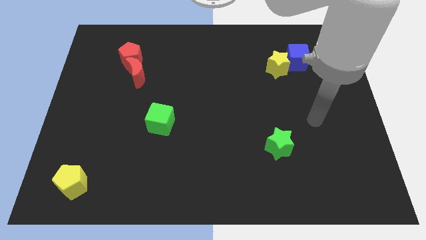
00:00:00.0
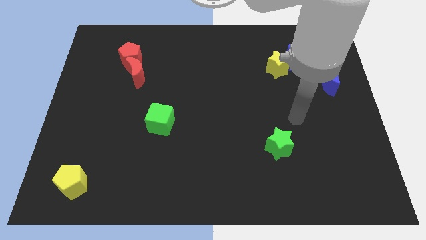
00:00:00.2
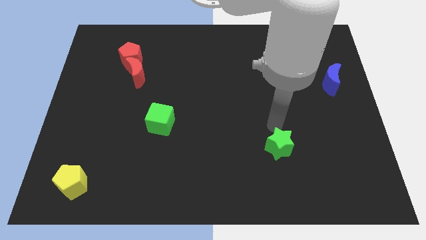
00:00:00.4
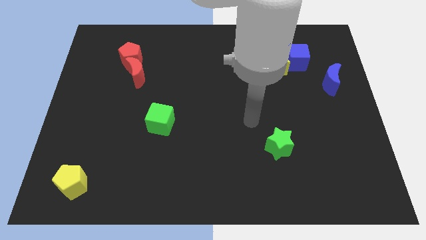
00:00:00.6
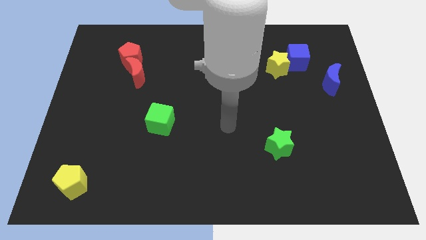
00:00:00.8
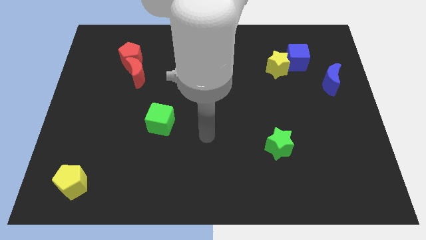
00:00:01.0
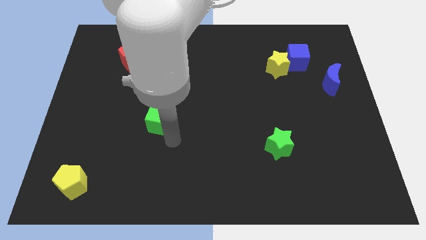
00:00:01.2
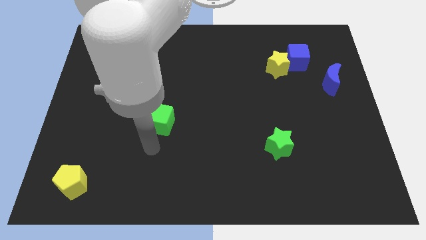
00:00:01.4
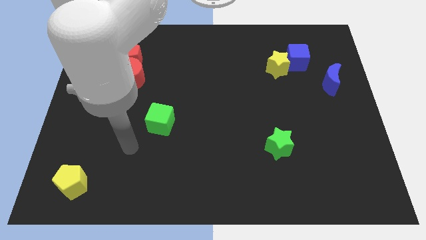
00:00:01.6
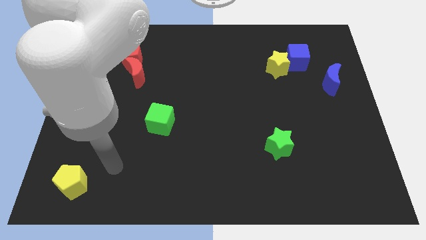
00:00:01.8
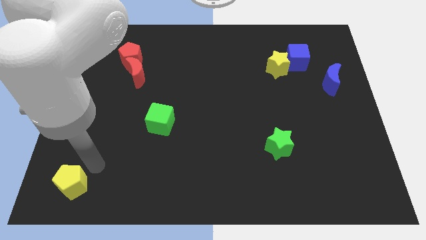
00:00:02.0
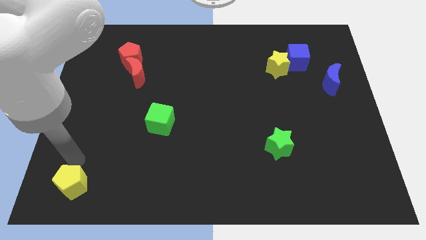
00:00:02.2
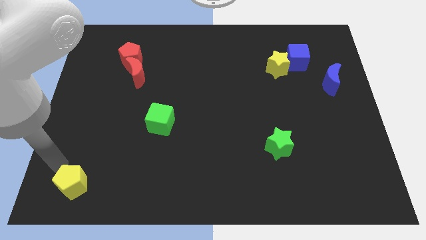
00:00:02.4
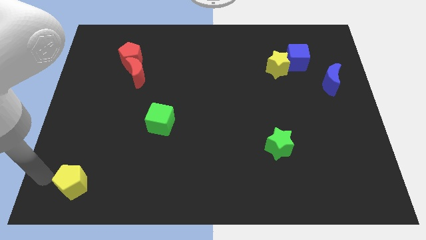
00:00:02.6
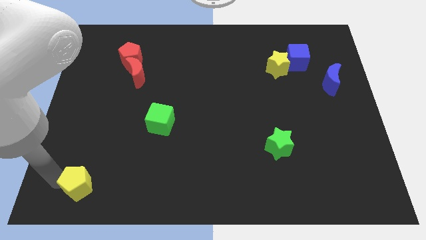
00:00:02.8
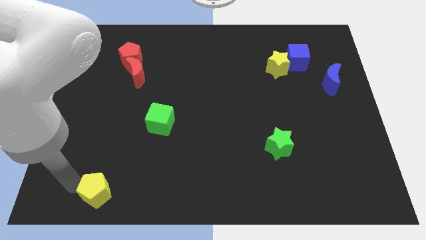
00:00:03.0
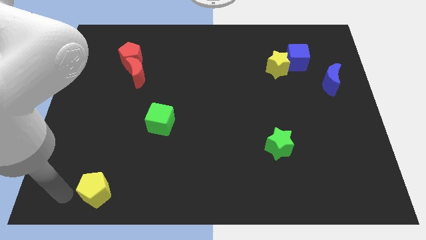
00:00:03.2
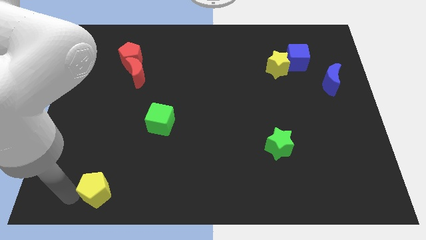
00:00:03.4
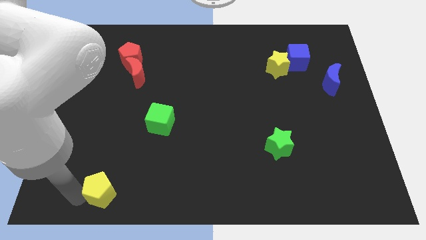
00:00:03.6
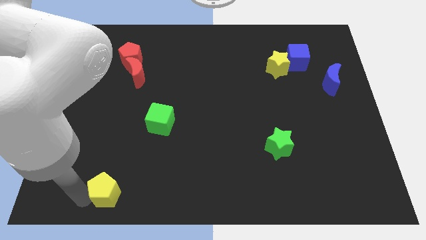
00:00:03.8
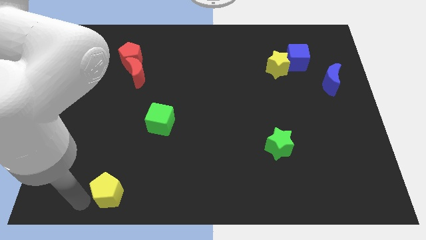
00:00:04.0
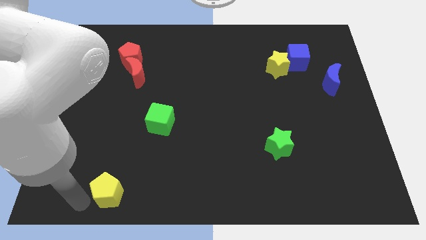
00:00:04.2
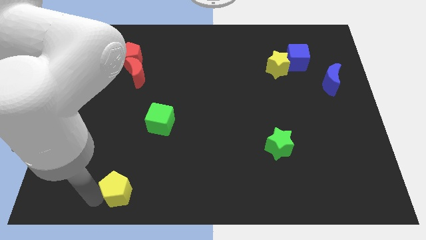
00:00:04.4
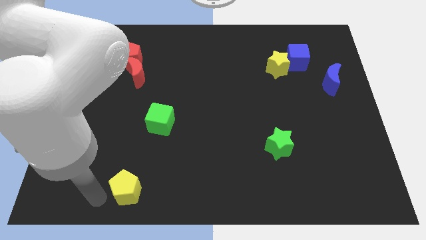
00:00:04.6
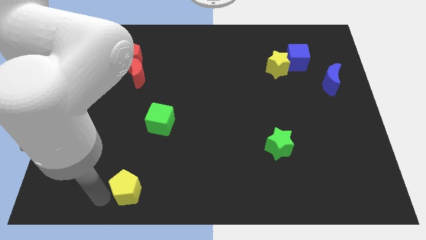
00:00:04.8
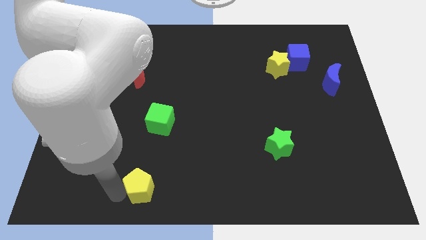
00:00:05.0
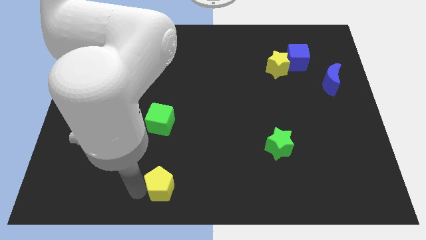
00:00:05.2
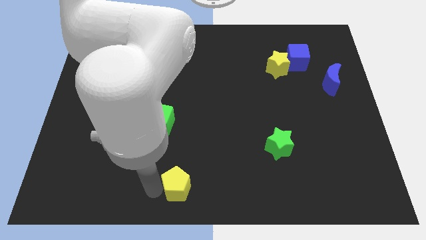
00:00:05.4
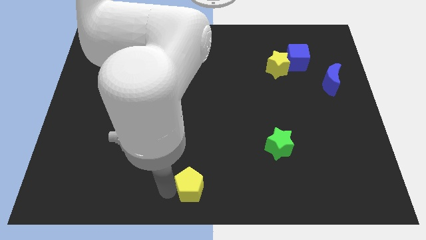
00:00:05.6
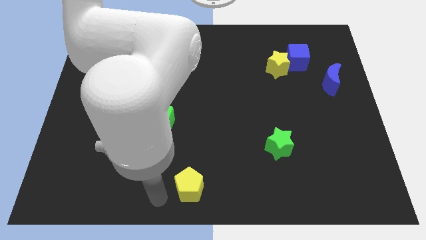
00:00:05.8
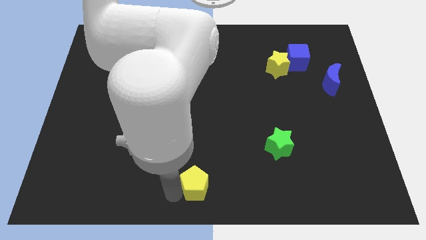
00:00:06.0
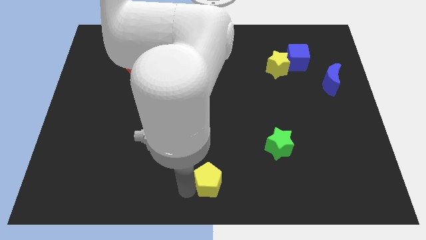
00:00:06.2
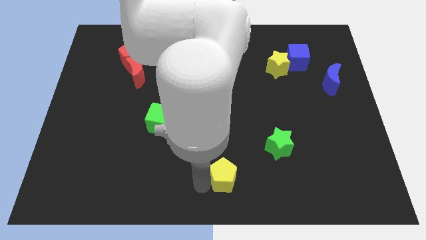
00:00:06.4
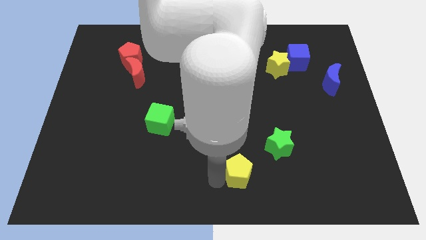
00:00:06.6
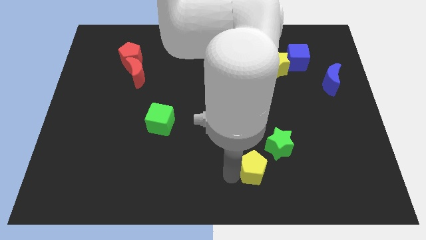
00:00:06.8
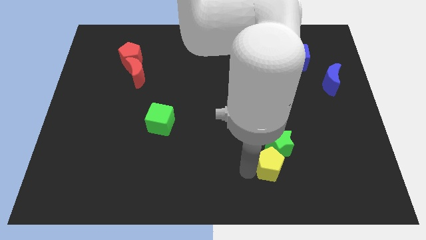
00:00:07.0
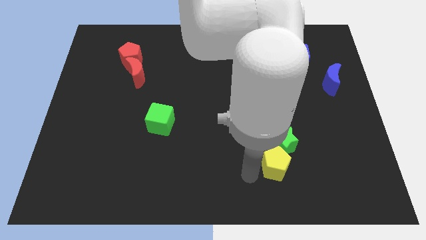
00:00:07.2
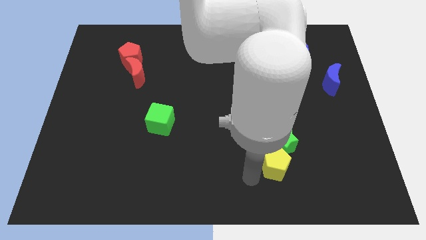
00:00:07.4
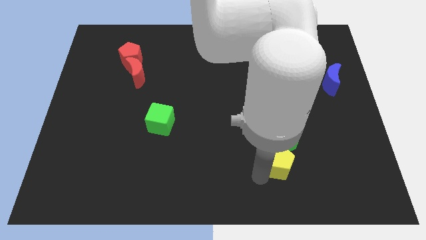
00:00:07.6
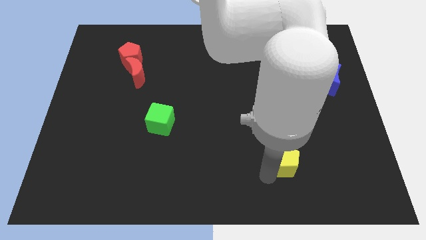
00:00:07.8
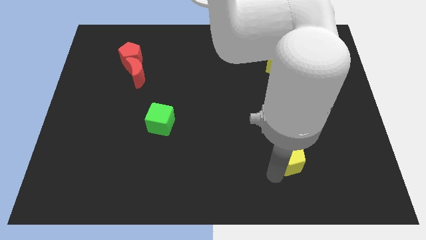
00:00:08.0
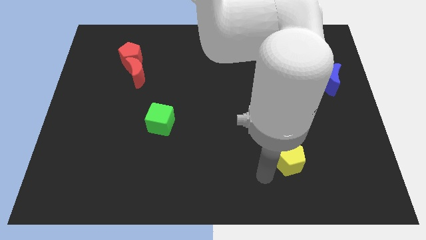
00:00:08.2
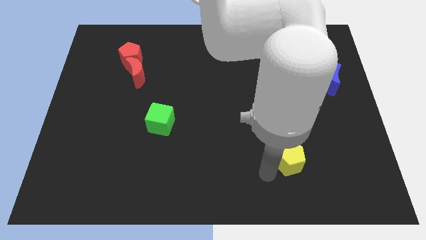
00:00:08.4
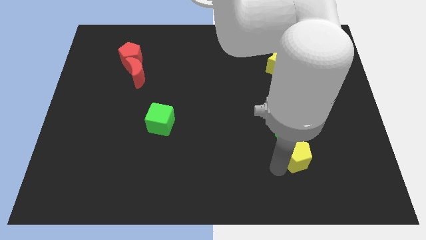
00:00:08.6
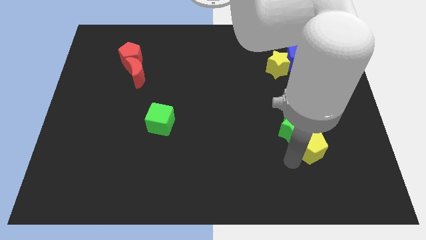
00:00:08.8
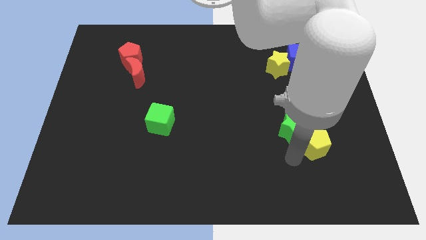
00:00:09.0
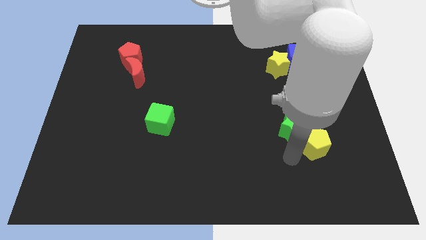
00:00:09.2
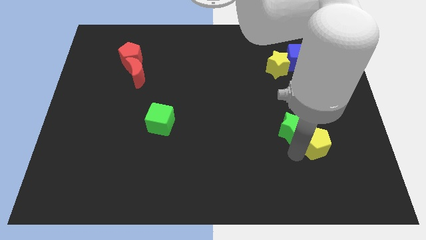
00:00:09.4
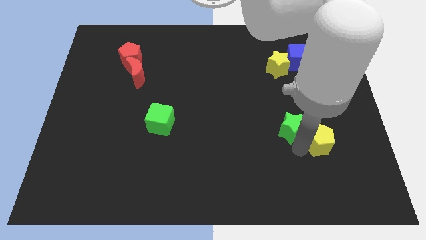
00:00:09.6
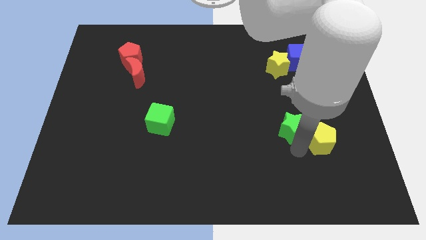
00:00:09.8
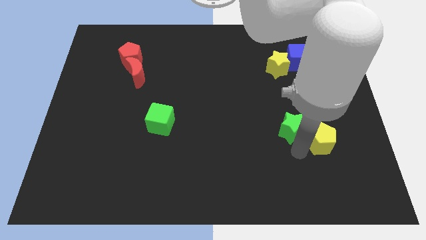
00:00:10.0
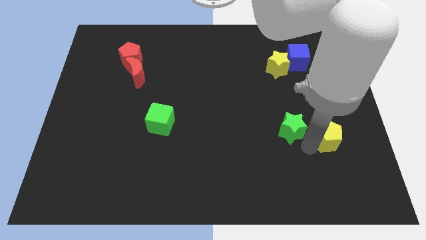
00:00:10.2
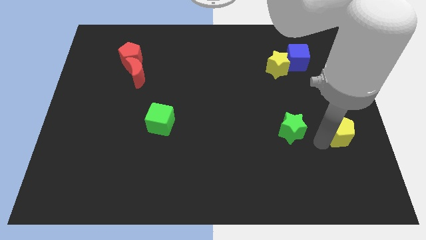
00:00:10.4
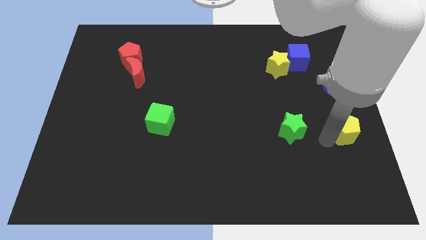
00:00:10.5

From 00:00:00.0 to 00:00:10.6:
push the yellow pentagon to the right side of the board
